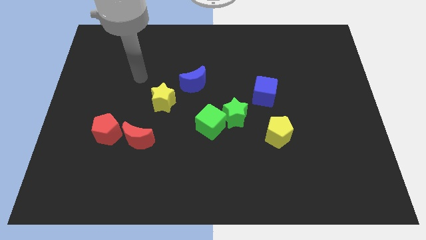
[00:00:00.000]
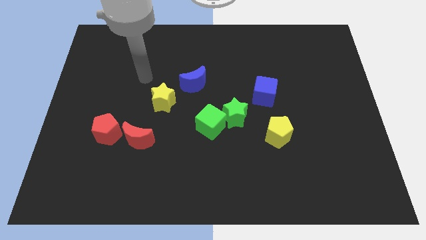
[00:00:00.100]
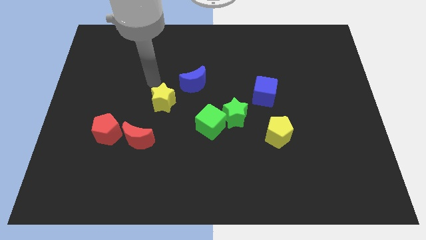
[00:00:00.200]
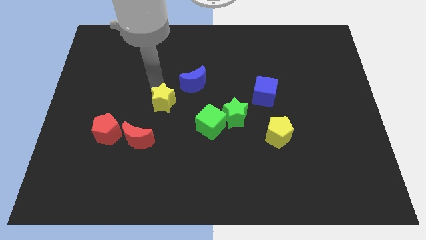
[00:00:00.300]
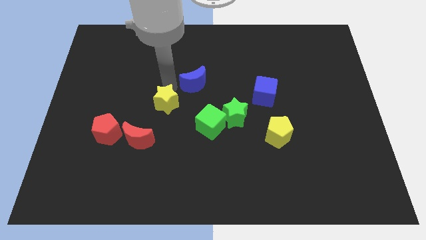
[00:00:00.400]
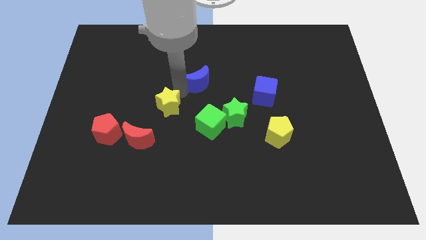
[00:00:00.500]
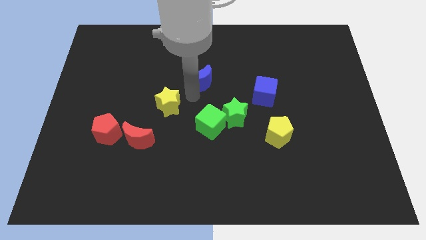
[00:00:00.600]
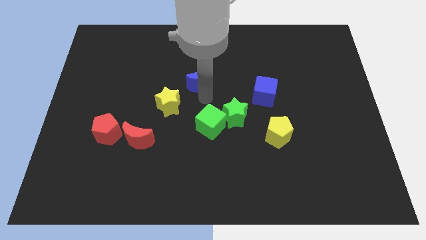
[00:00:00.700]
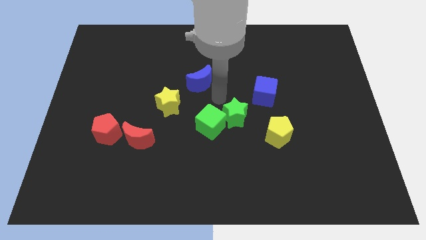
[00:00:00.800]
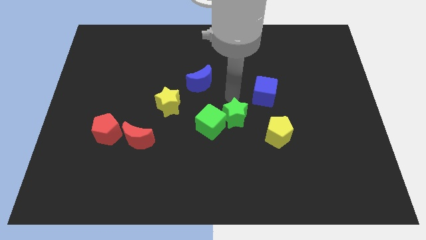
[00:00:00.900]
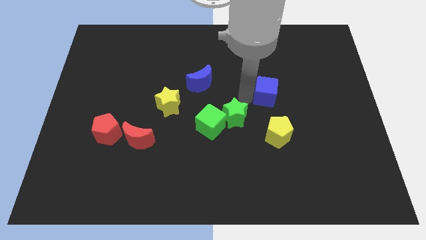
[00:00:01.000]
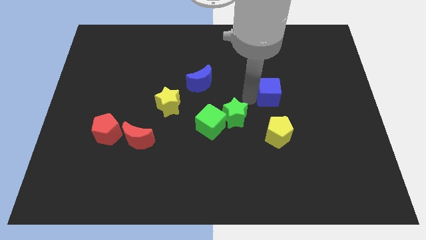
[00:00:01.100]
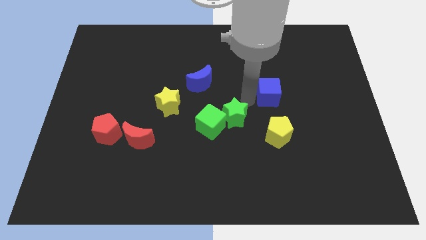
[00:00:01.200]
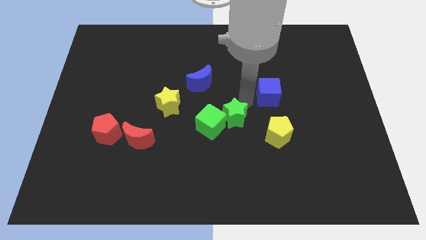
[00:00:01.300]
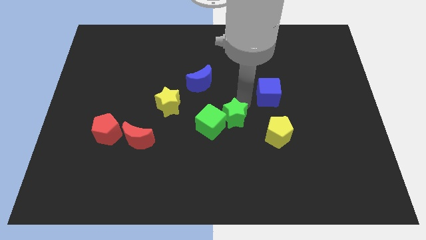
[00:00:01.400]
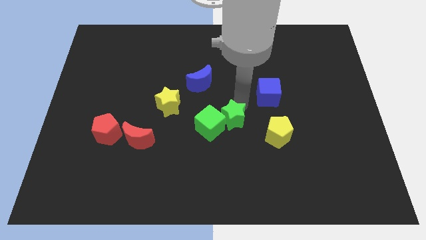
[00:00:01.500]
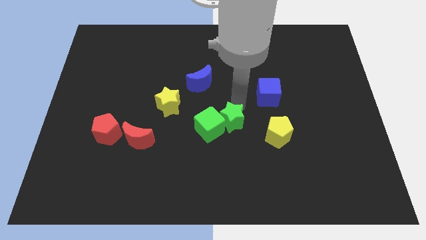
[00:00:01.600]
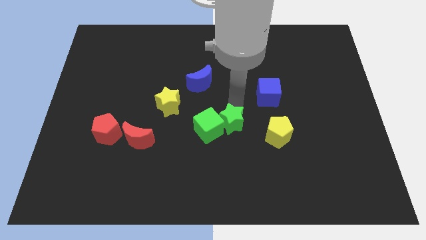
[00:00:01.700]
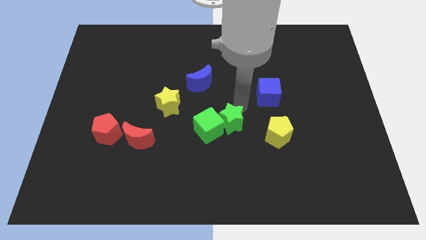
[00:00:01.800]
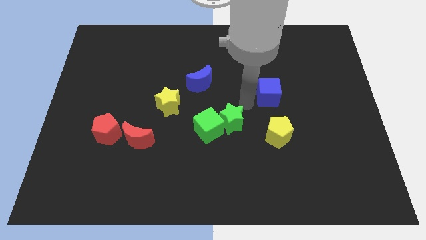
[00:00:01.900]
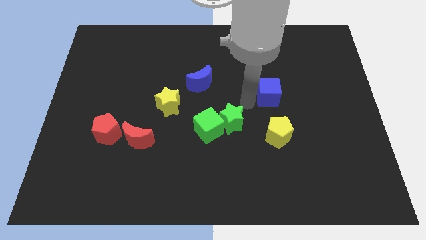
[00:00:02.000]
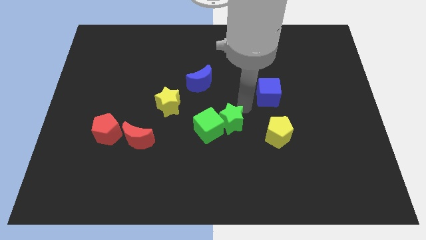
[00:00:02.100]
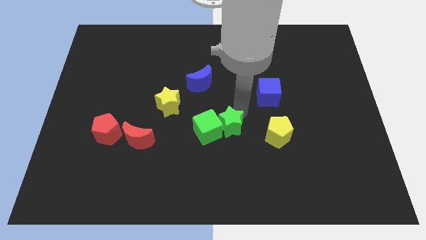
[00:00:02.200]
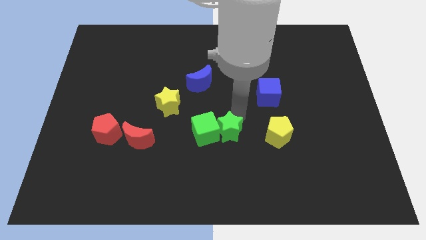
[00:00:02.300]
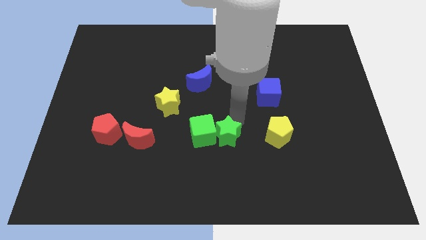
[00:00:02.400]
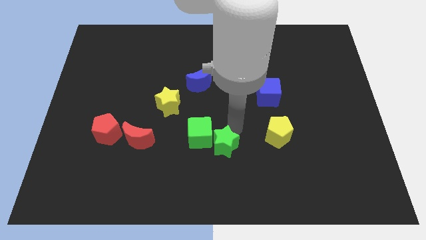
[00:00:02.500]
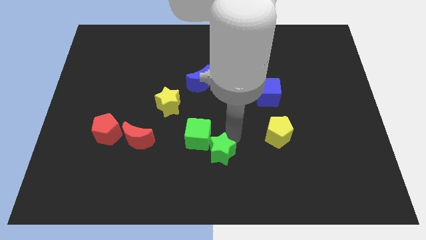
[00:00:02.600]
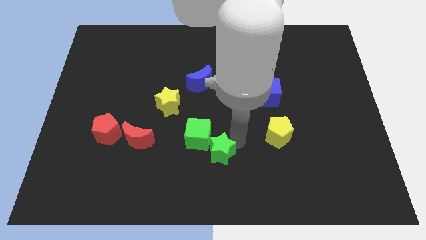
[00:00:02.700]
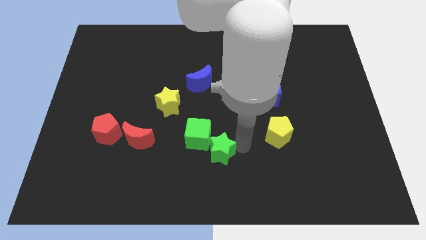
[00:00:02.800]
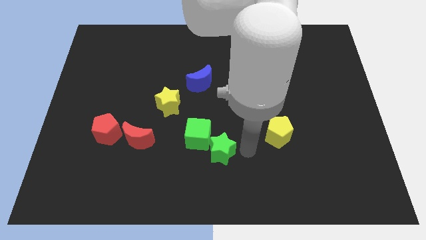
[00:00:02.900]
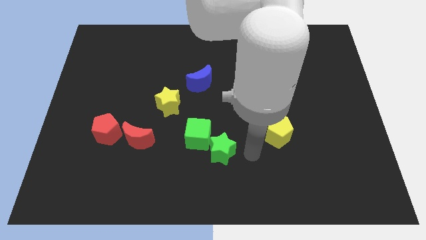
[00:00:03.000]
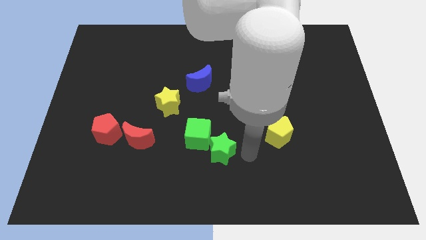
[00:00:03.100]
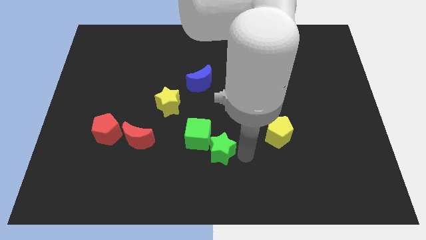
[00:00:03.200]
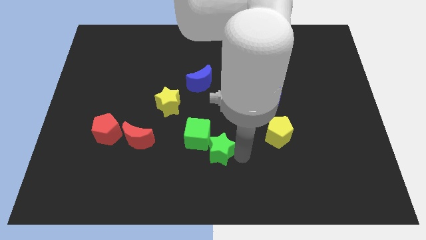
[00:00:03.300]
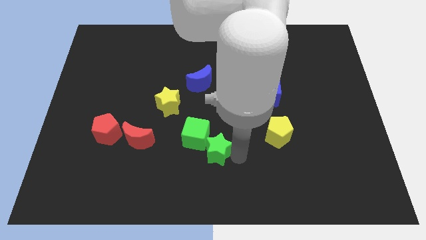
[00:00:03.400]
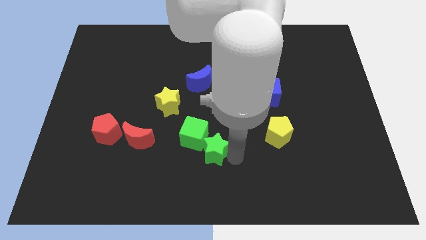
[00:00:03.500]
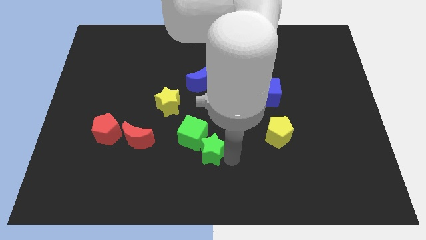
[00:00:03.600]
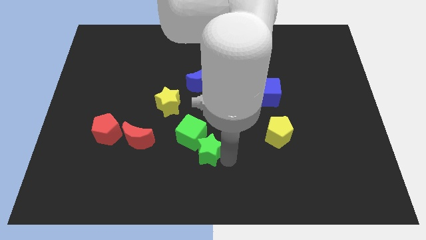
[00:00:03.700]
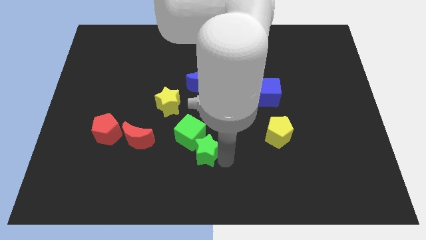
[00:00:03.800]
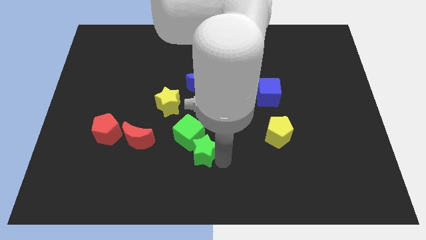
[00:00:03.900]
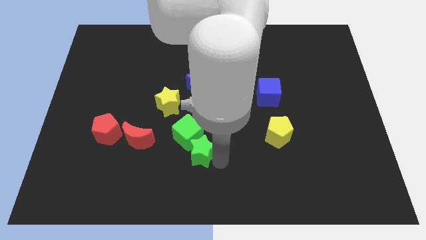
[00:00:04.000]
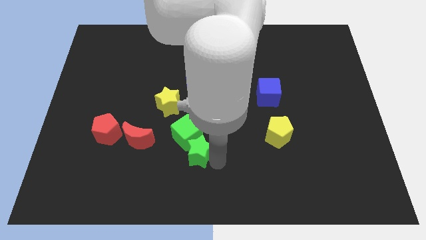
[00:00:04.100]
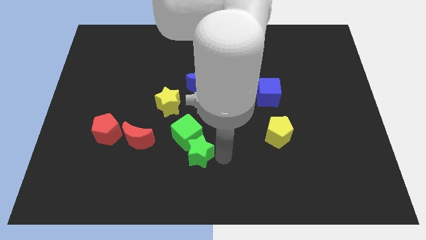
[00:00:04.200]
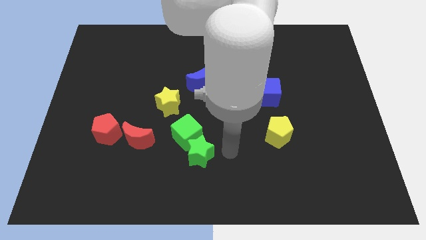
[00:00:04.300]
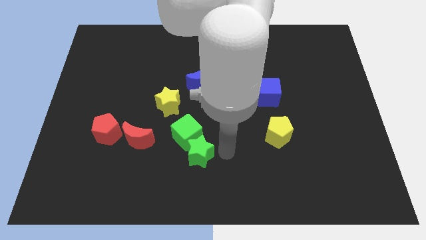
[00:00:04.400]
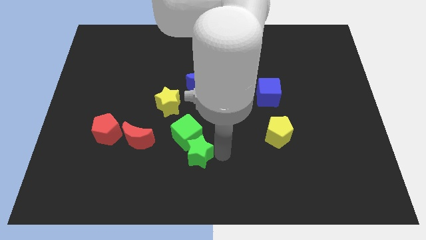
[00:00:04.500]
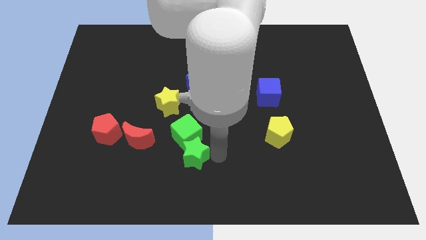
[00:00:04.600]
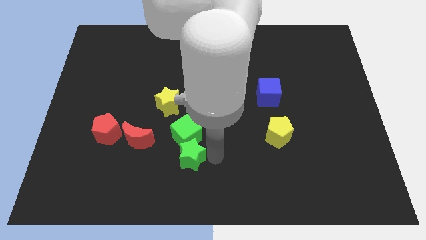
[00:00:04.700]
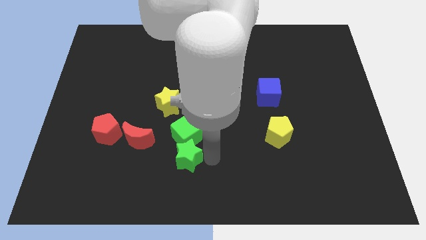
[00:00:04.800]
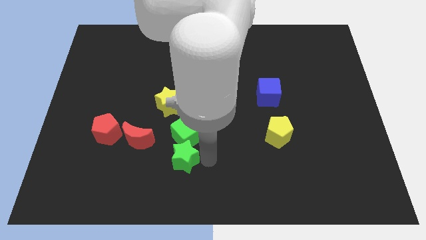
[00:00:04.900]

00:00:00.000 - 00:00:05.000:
slide the green star to the bottom right of the red moon

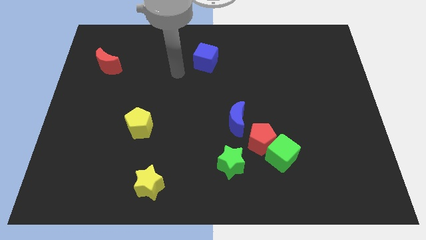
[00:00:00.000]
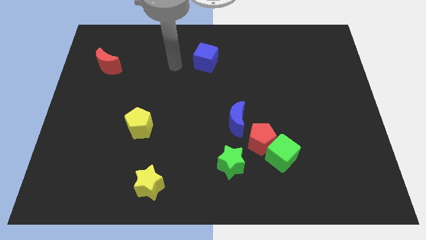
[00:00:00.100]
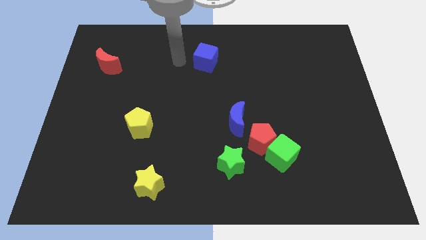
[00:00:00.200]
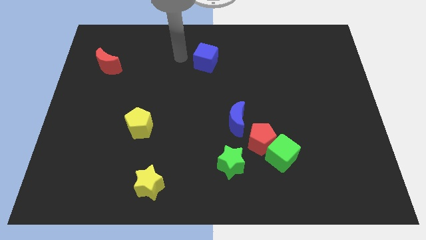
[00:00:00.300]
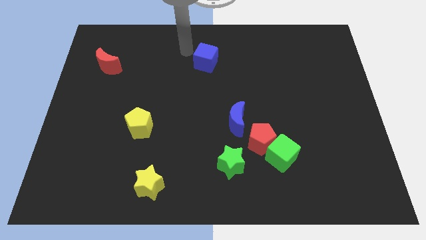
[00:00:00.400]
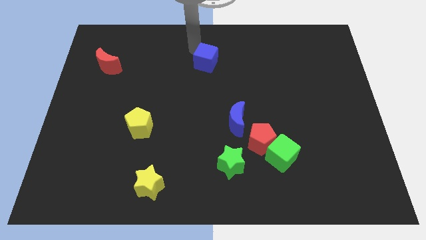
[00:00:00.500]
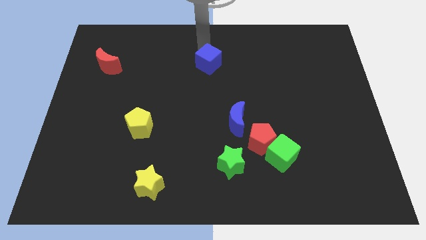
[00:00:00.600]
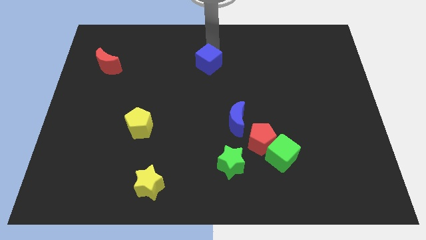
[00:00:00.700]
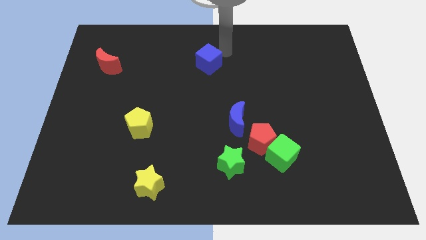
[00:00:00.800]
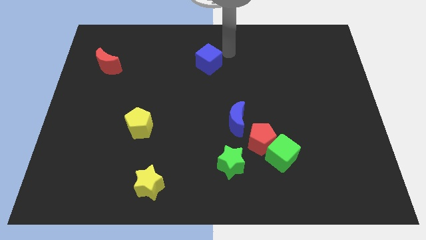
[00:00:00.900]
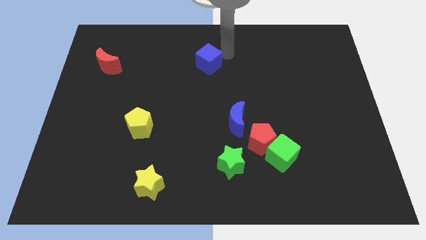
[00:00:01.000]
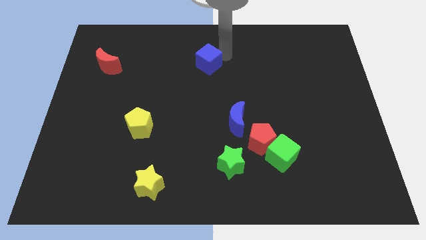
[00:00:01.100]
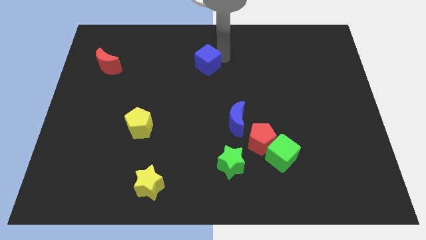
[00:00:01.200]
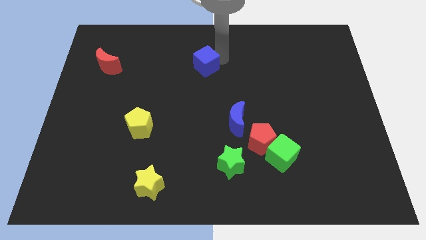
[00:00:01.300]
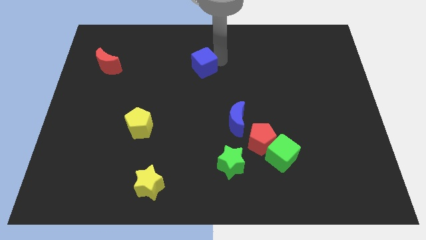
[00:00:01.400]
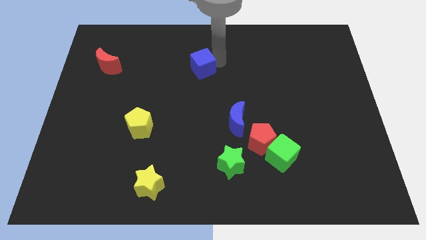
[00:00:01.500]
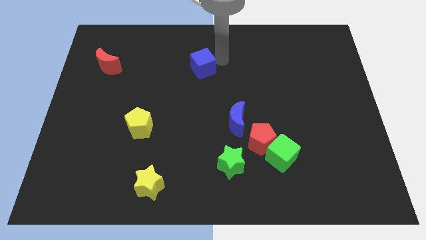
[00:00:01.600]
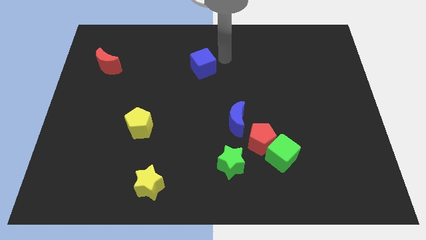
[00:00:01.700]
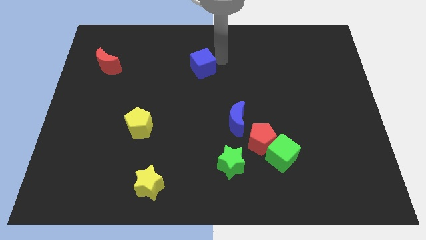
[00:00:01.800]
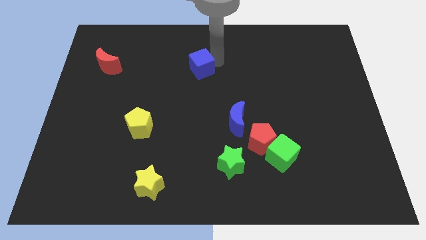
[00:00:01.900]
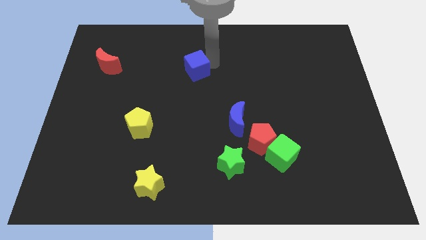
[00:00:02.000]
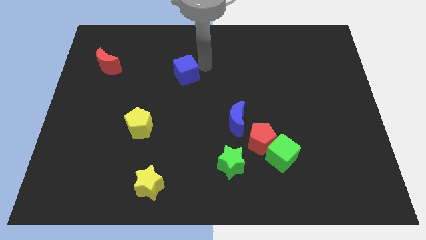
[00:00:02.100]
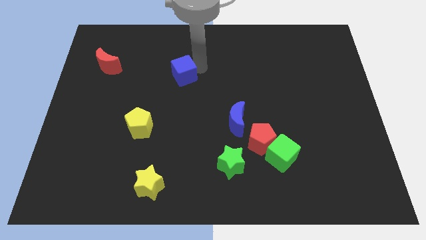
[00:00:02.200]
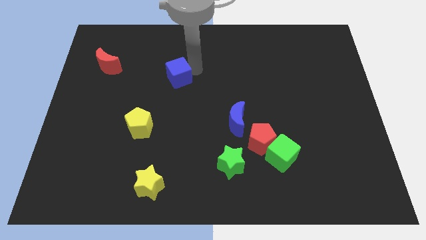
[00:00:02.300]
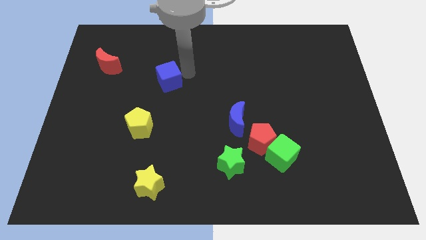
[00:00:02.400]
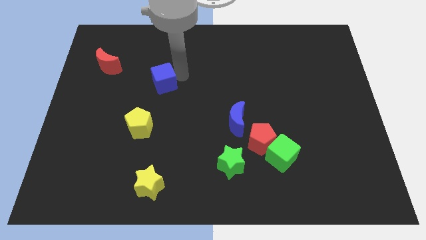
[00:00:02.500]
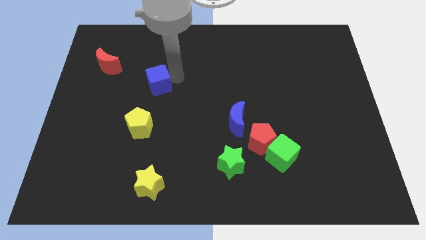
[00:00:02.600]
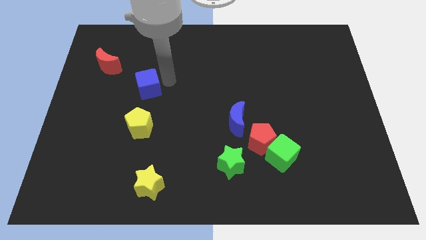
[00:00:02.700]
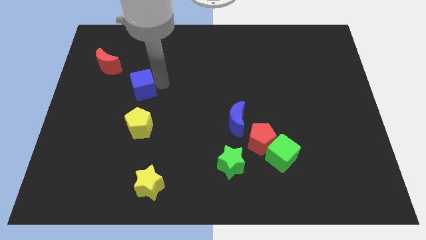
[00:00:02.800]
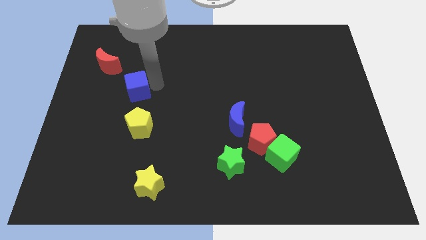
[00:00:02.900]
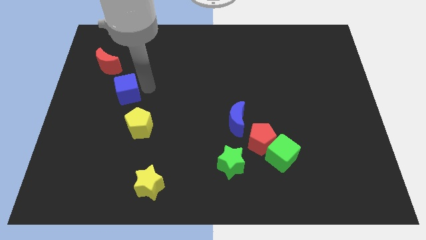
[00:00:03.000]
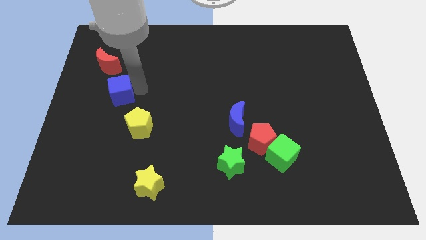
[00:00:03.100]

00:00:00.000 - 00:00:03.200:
slide the blue cube to the bottom of the red moon
